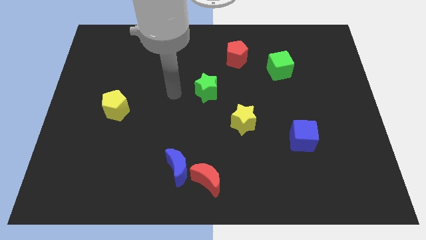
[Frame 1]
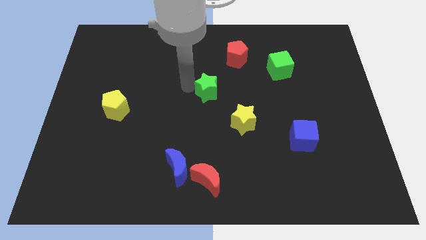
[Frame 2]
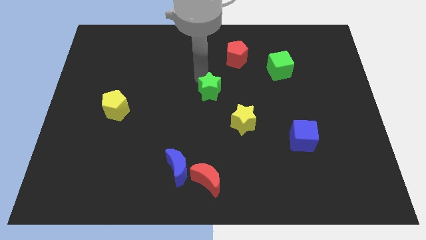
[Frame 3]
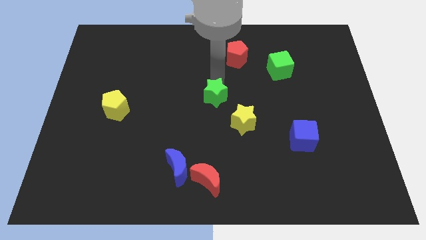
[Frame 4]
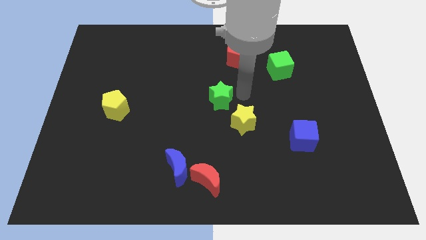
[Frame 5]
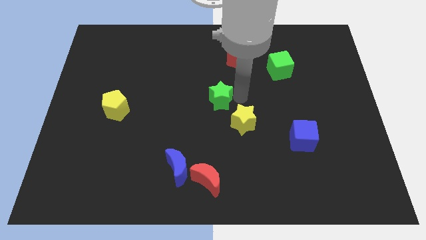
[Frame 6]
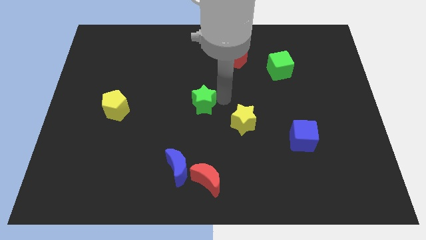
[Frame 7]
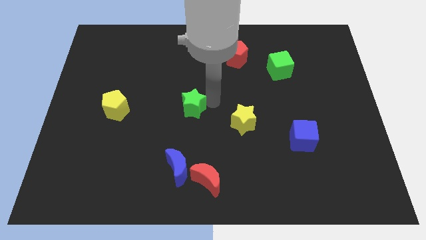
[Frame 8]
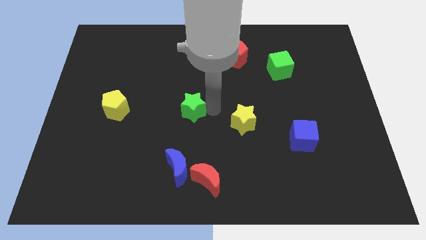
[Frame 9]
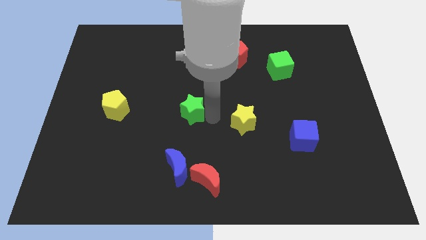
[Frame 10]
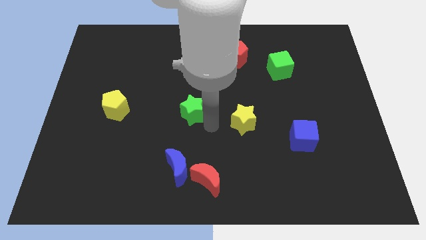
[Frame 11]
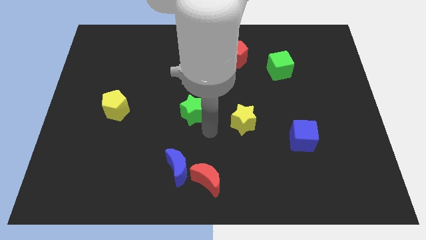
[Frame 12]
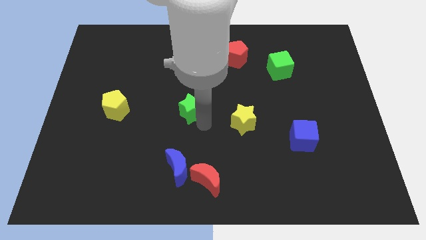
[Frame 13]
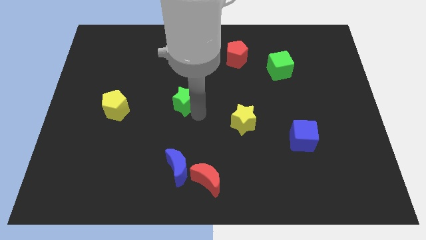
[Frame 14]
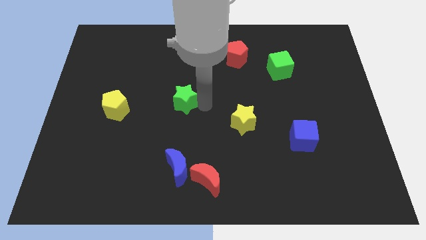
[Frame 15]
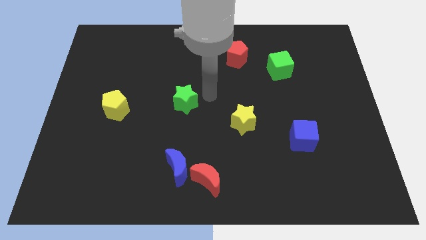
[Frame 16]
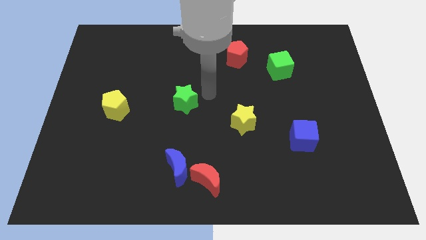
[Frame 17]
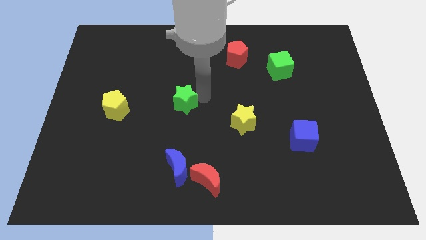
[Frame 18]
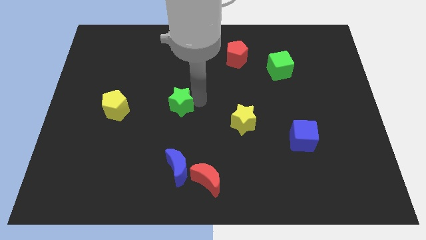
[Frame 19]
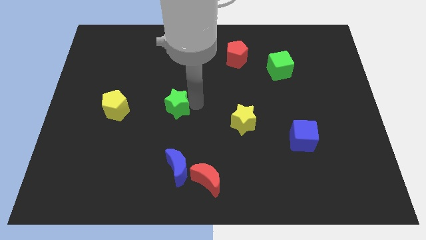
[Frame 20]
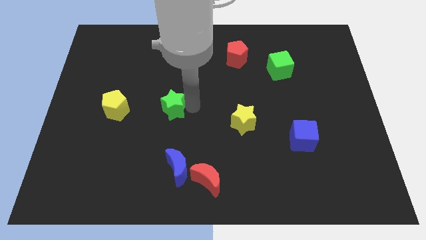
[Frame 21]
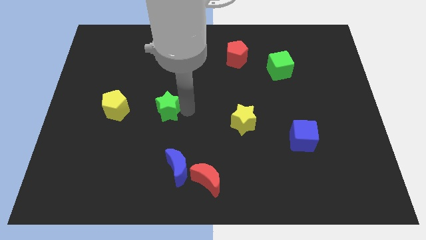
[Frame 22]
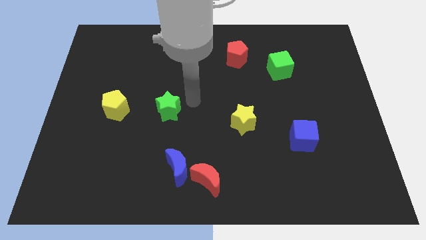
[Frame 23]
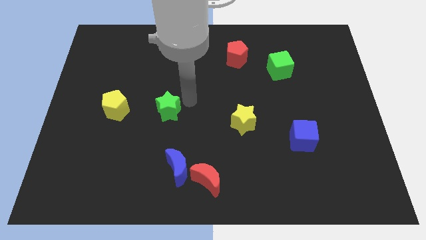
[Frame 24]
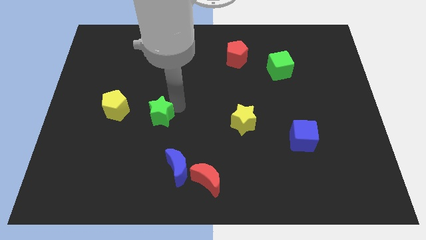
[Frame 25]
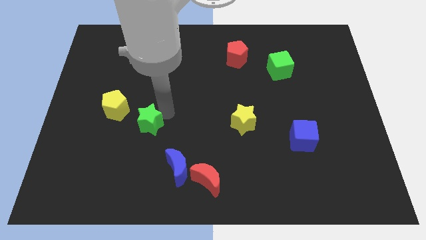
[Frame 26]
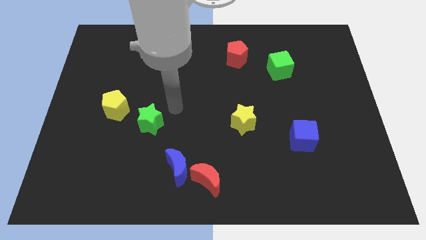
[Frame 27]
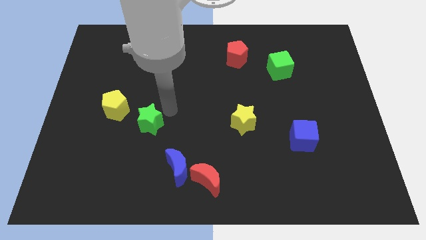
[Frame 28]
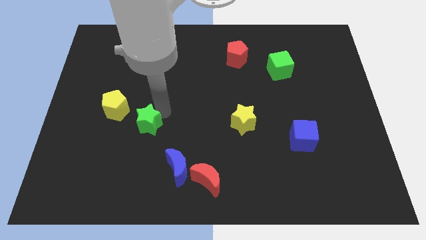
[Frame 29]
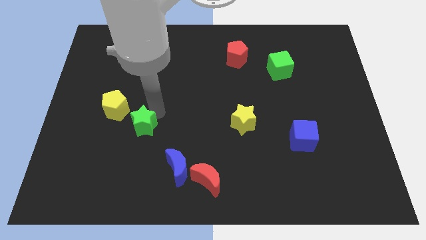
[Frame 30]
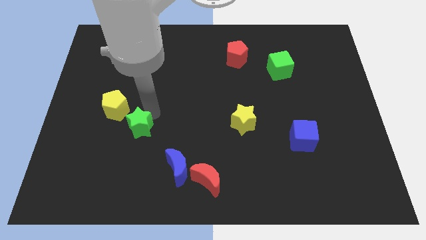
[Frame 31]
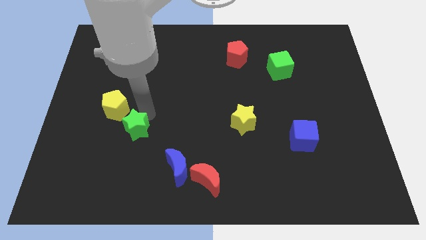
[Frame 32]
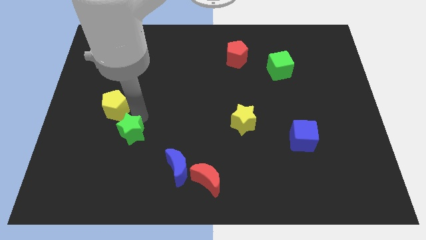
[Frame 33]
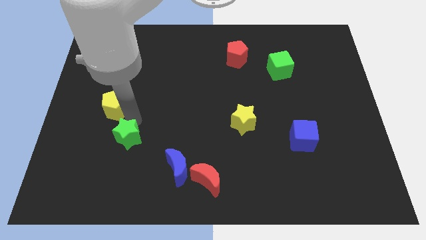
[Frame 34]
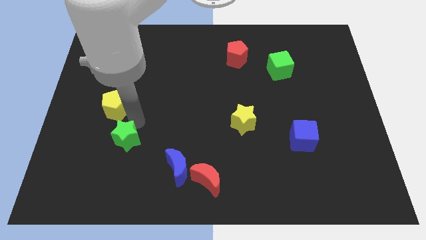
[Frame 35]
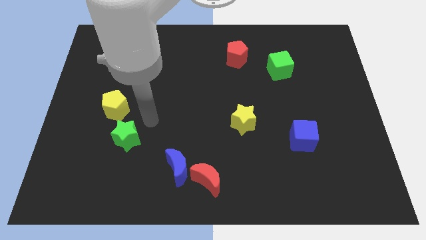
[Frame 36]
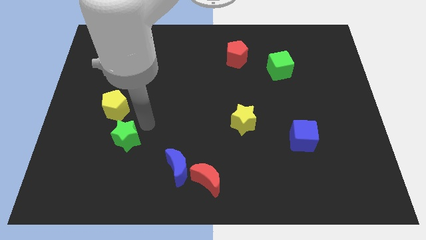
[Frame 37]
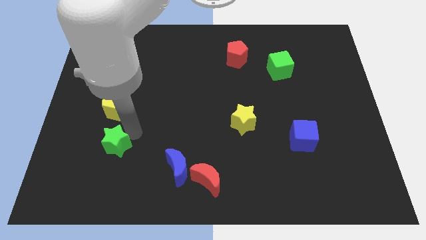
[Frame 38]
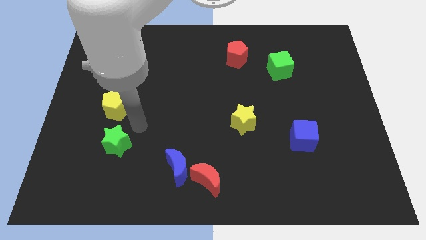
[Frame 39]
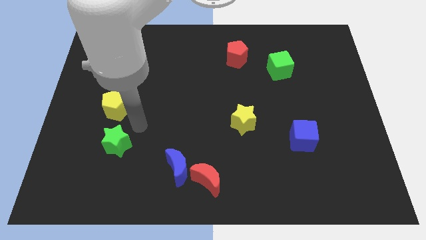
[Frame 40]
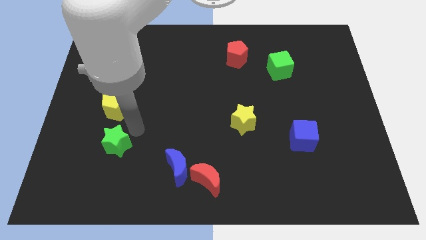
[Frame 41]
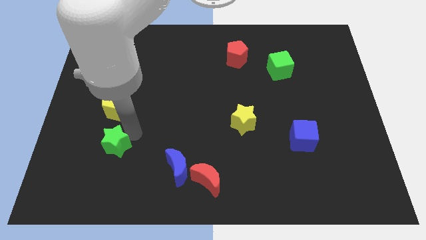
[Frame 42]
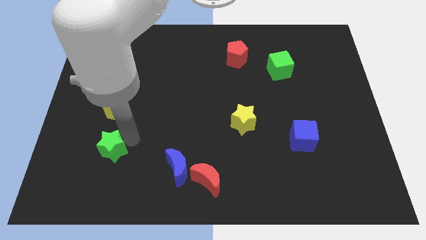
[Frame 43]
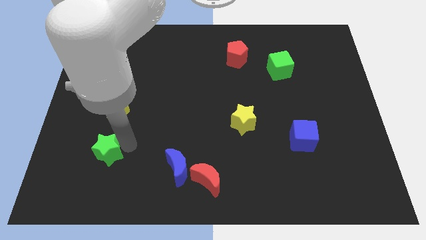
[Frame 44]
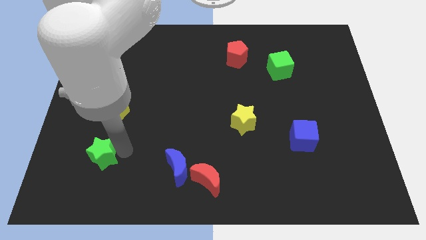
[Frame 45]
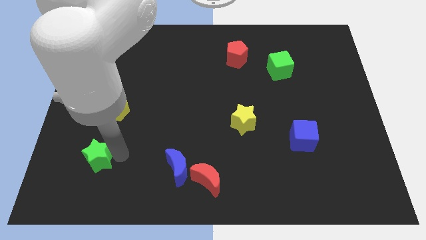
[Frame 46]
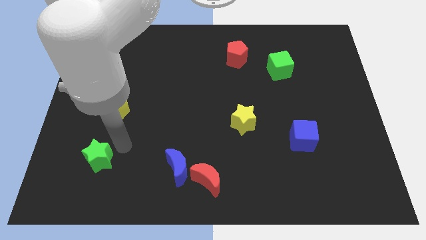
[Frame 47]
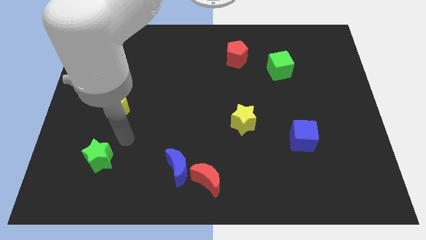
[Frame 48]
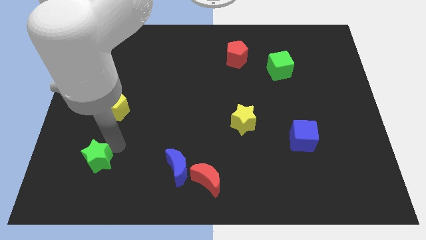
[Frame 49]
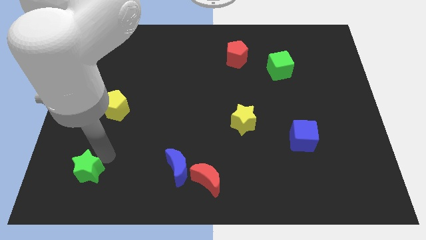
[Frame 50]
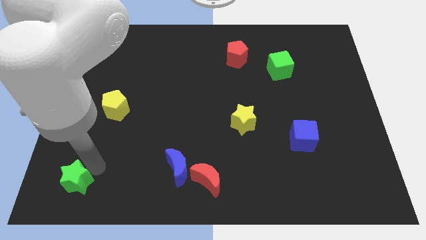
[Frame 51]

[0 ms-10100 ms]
slide the green star to the lower left corner

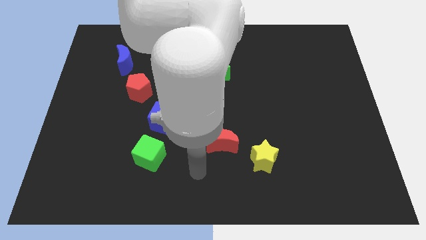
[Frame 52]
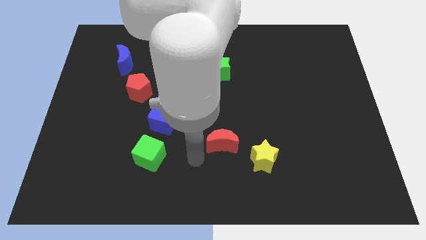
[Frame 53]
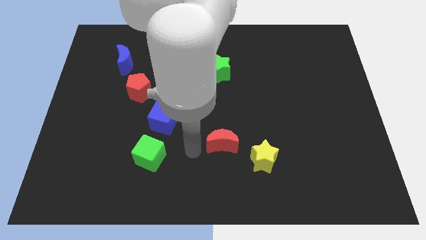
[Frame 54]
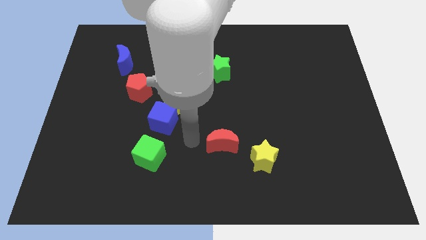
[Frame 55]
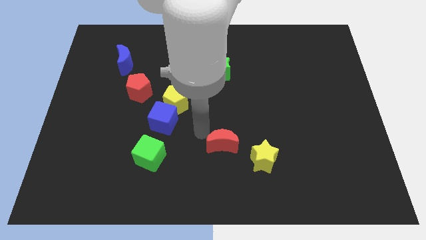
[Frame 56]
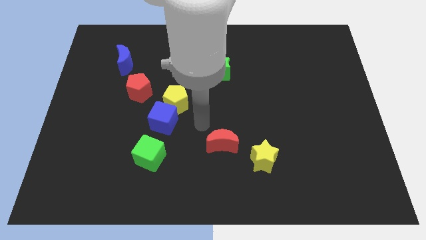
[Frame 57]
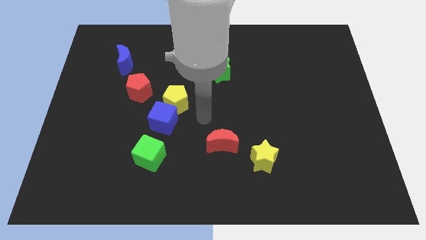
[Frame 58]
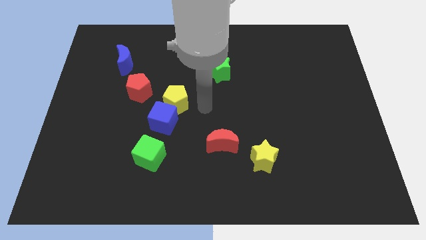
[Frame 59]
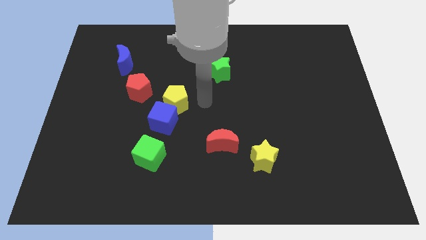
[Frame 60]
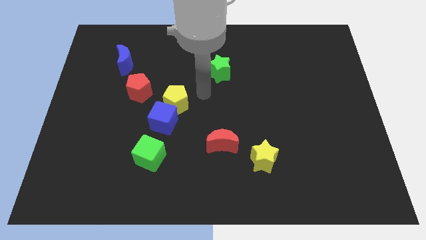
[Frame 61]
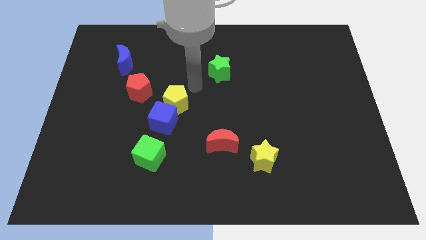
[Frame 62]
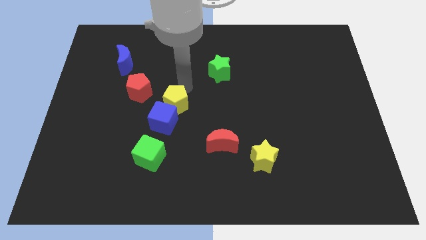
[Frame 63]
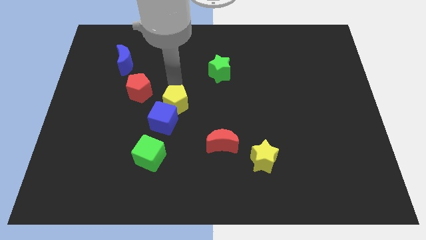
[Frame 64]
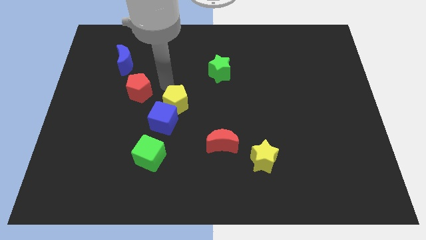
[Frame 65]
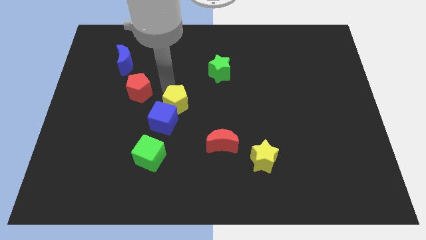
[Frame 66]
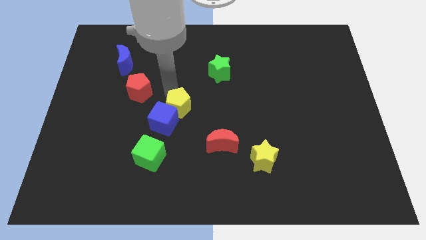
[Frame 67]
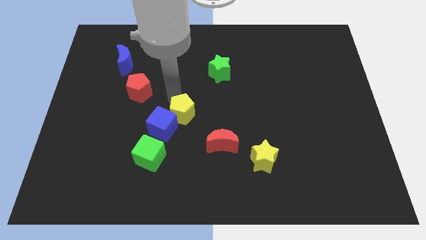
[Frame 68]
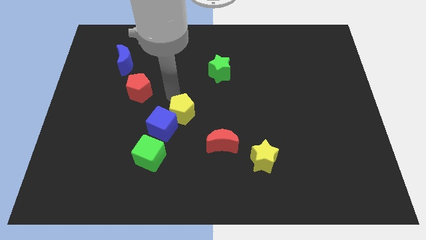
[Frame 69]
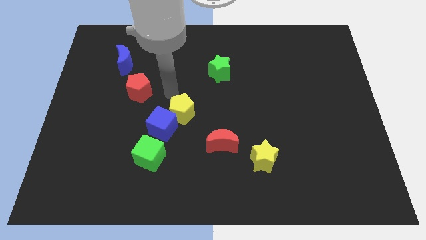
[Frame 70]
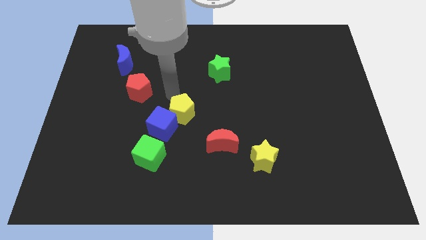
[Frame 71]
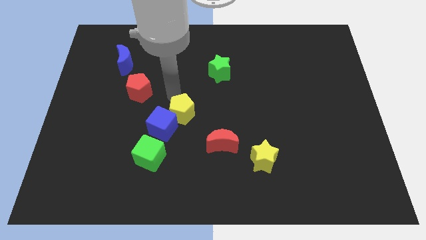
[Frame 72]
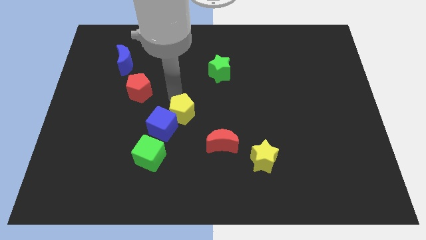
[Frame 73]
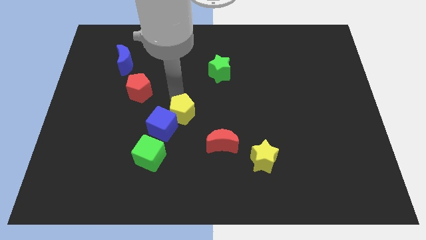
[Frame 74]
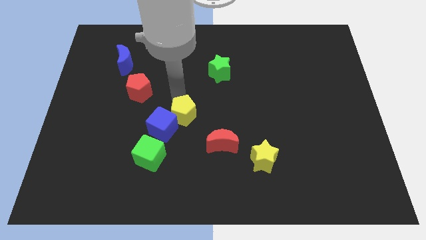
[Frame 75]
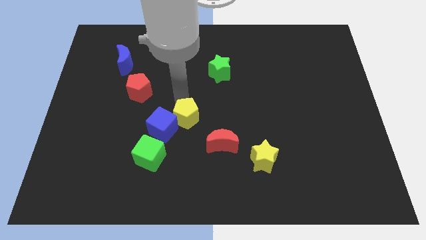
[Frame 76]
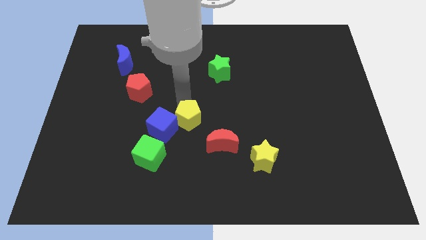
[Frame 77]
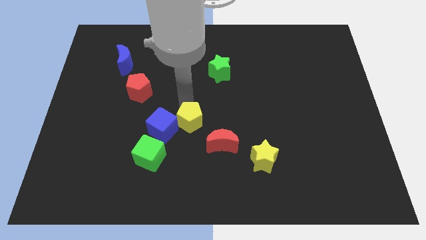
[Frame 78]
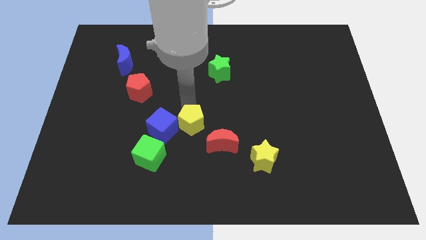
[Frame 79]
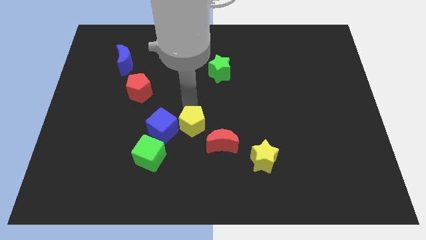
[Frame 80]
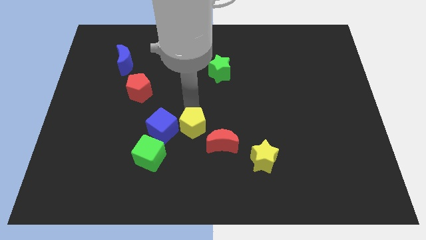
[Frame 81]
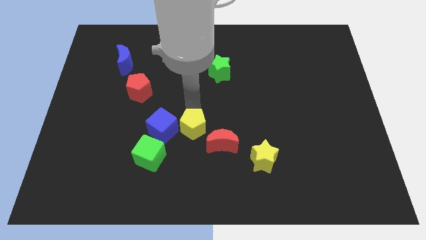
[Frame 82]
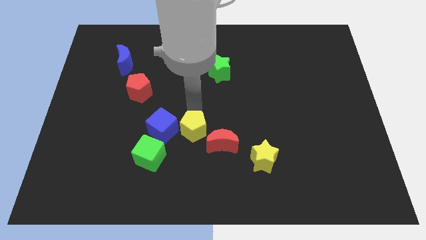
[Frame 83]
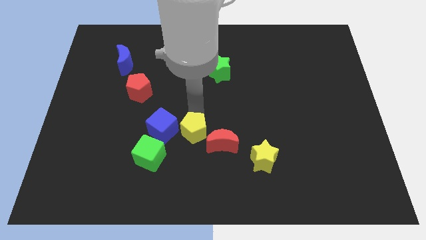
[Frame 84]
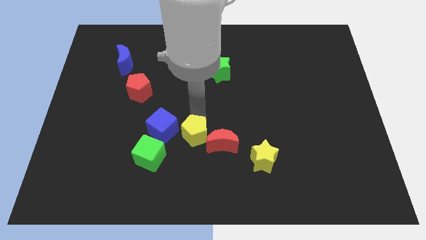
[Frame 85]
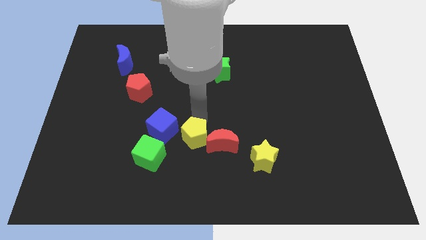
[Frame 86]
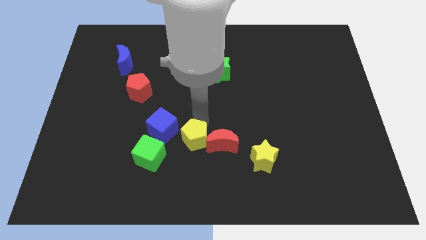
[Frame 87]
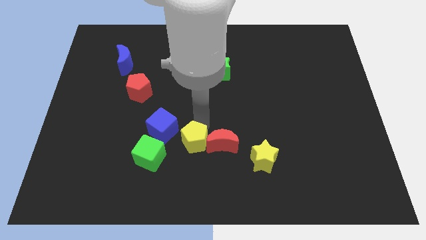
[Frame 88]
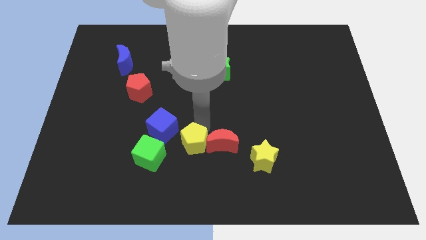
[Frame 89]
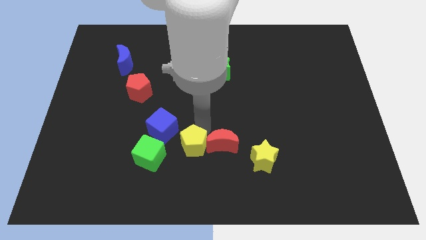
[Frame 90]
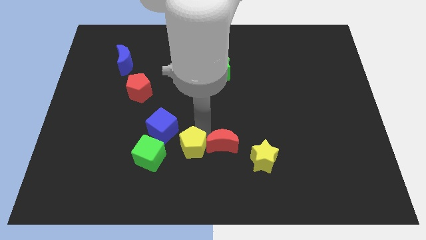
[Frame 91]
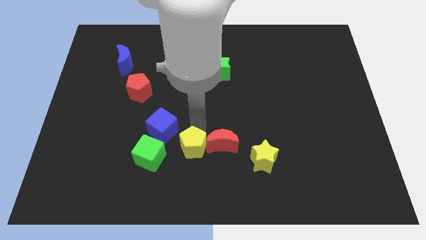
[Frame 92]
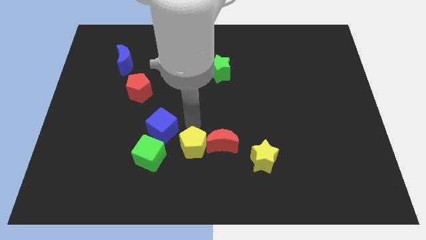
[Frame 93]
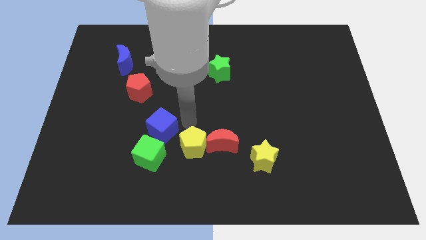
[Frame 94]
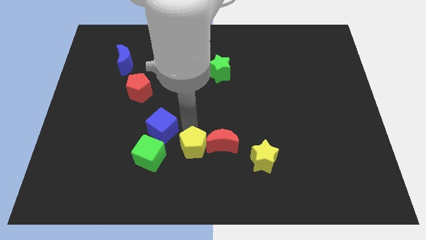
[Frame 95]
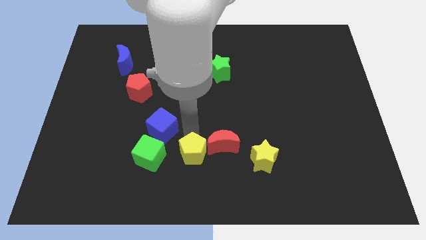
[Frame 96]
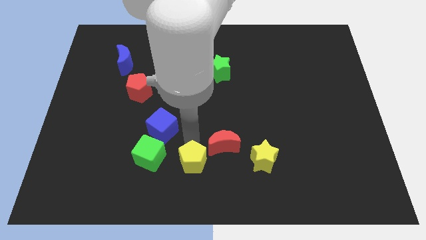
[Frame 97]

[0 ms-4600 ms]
move the yellow pentagon to the bottom
